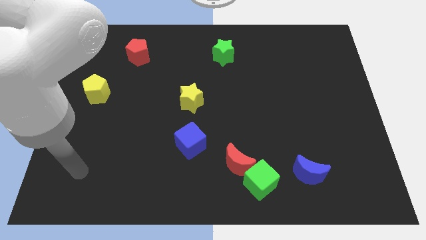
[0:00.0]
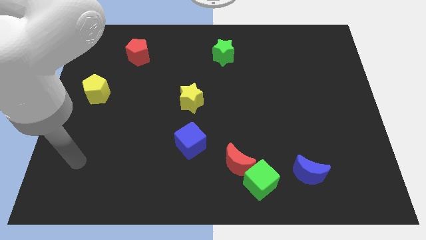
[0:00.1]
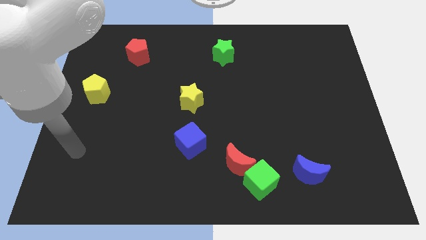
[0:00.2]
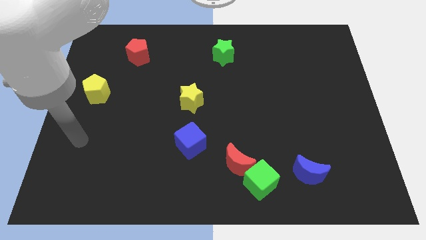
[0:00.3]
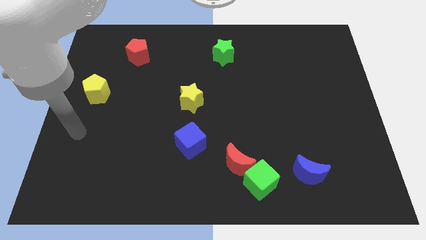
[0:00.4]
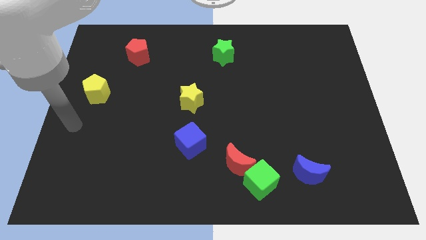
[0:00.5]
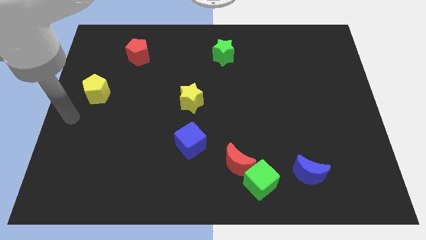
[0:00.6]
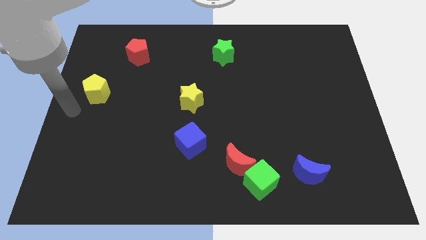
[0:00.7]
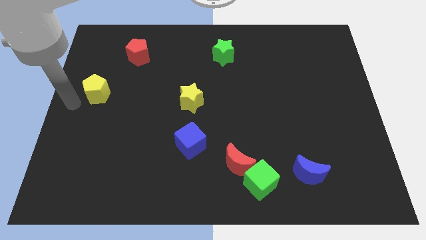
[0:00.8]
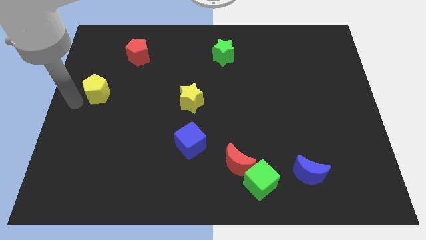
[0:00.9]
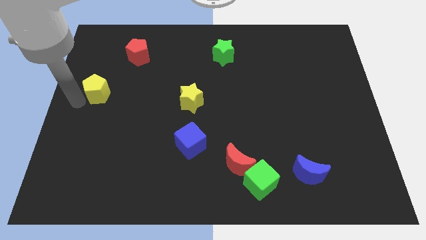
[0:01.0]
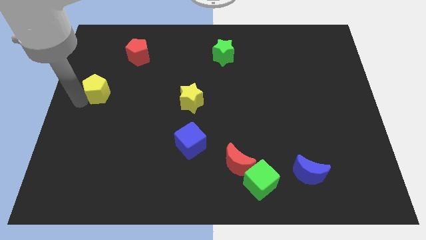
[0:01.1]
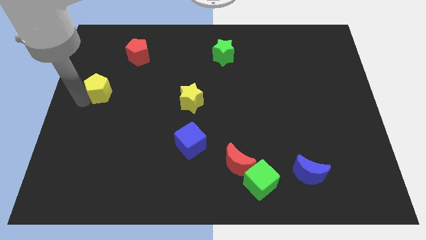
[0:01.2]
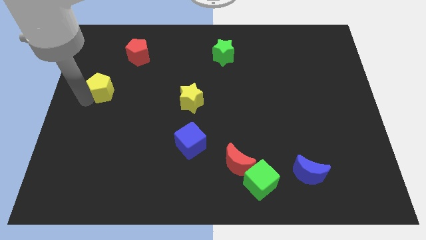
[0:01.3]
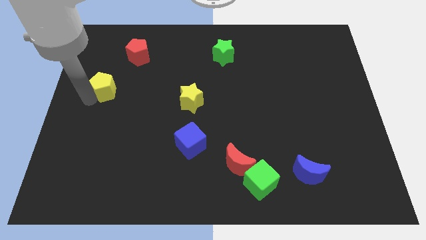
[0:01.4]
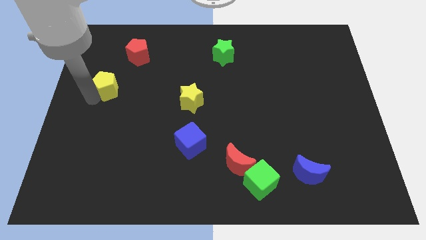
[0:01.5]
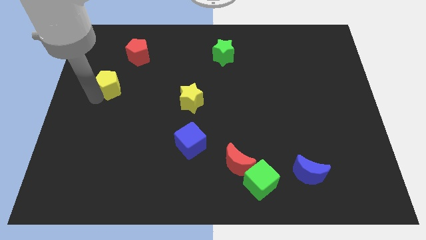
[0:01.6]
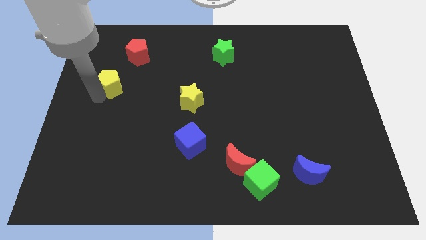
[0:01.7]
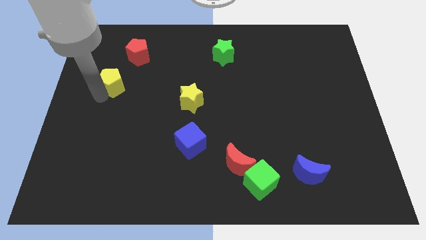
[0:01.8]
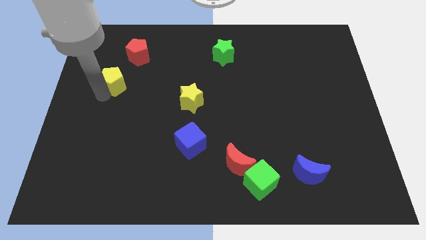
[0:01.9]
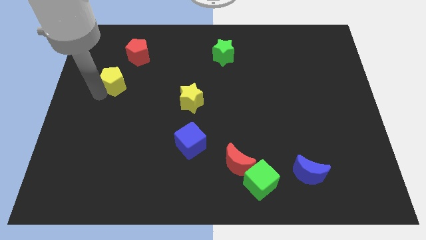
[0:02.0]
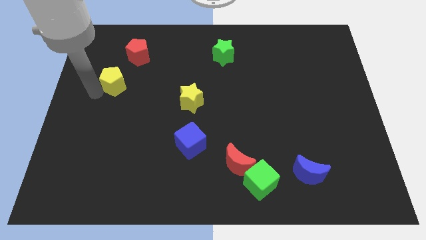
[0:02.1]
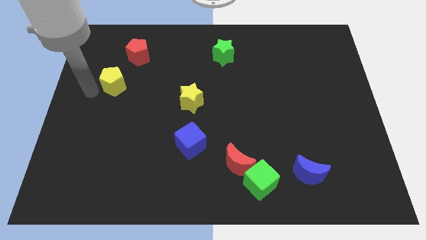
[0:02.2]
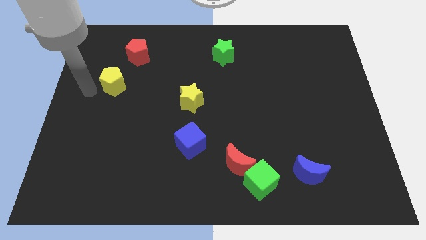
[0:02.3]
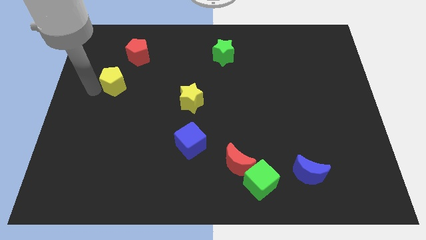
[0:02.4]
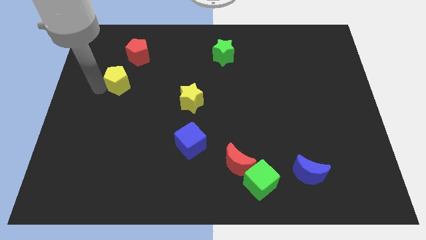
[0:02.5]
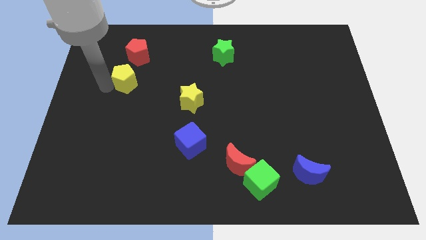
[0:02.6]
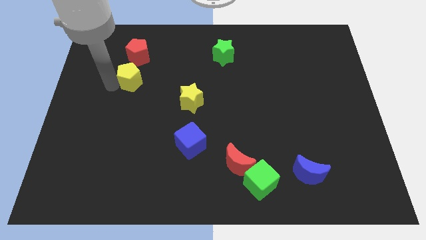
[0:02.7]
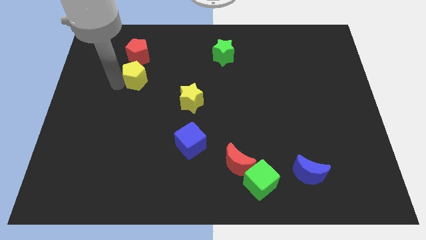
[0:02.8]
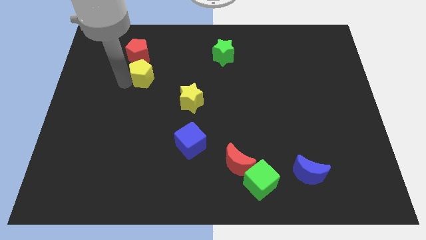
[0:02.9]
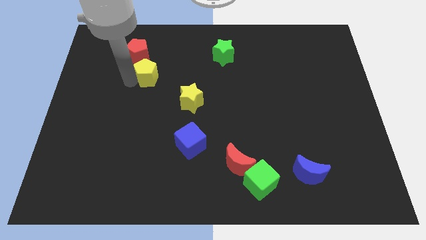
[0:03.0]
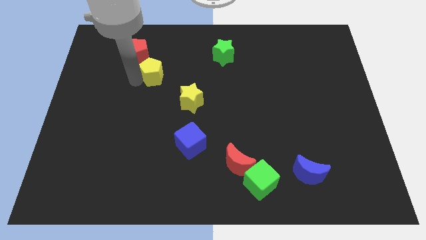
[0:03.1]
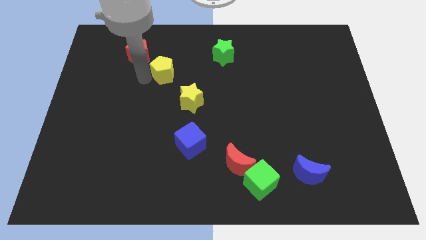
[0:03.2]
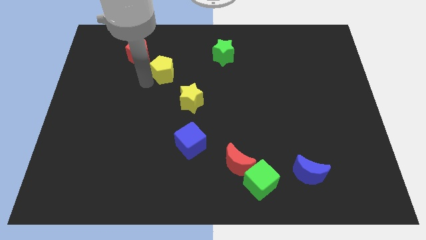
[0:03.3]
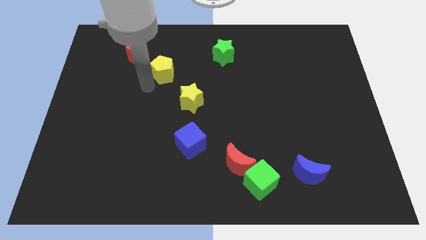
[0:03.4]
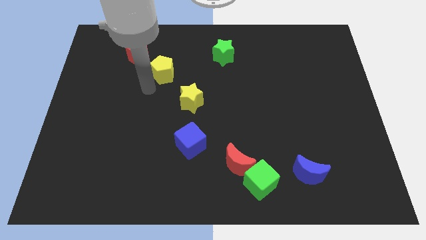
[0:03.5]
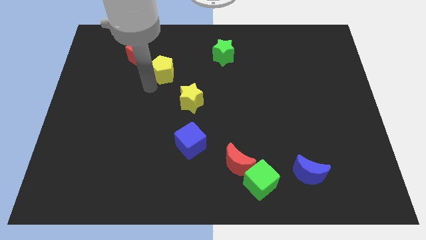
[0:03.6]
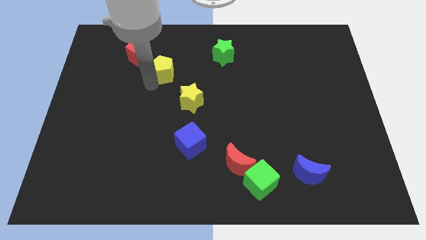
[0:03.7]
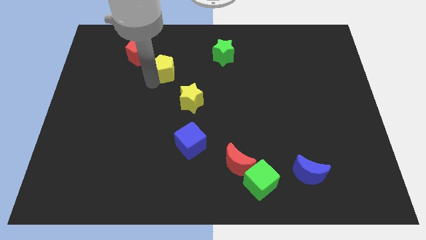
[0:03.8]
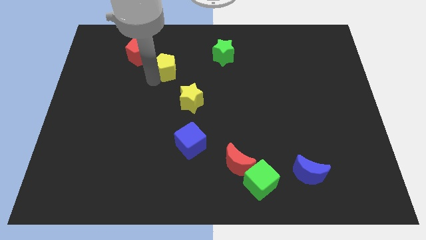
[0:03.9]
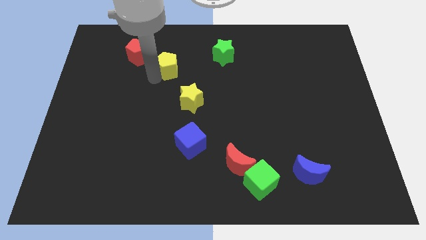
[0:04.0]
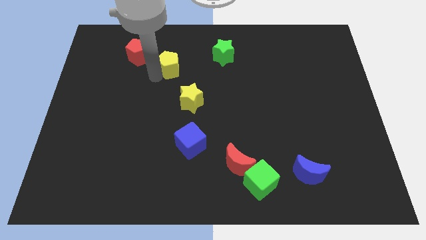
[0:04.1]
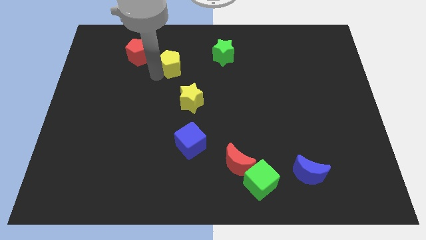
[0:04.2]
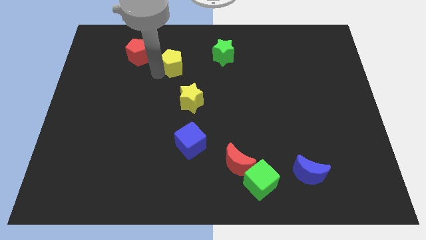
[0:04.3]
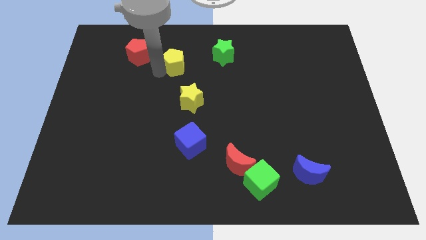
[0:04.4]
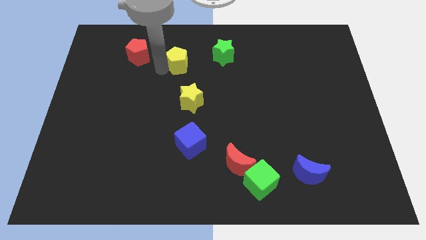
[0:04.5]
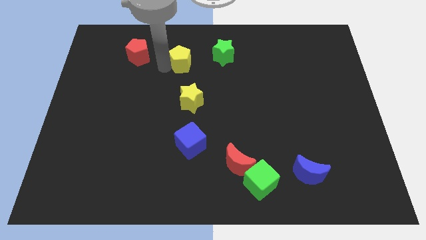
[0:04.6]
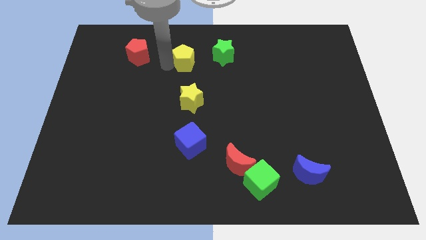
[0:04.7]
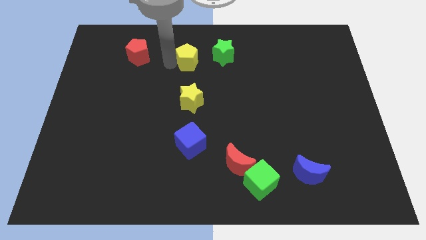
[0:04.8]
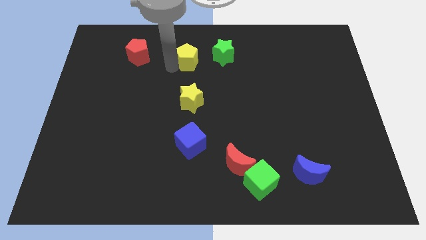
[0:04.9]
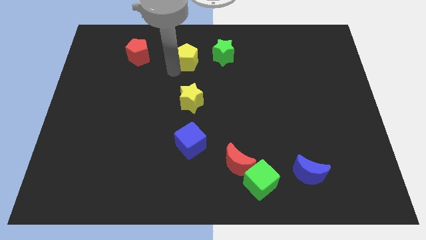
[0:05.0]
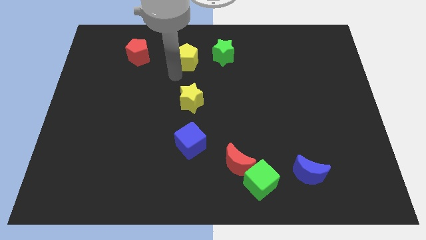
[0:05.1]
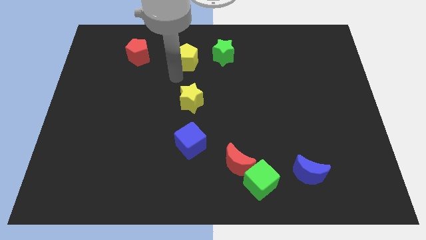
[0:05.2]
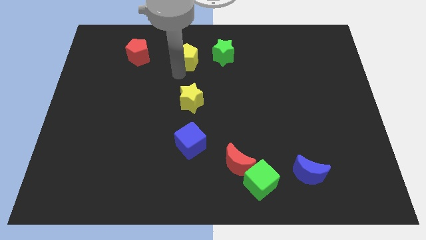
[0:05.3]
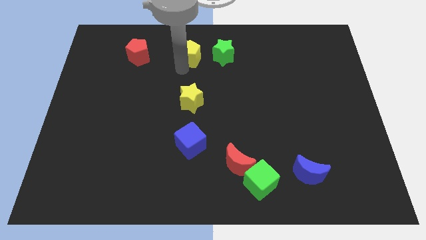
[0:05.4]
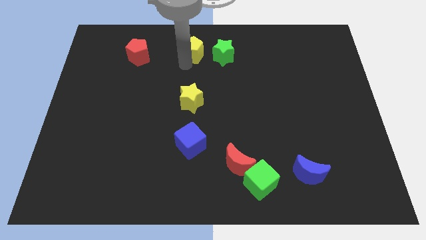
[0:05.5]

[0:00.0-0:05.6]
push the yellow pentagon to the top side
